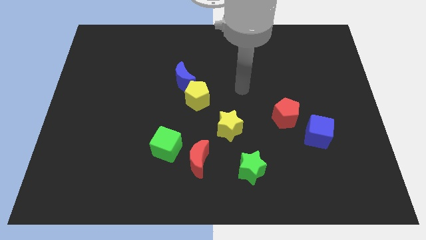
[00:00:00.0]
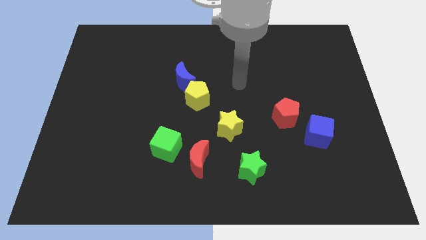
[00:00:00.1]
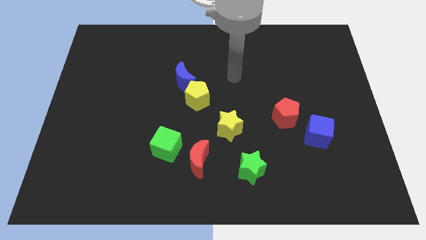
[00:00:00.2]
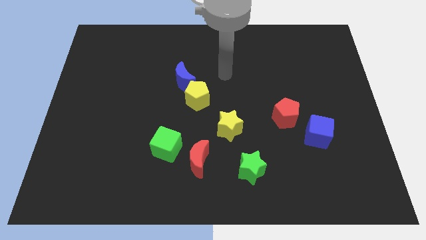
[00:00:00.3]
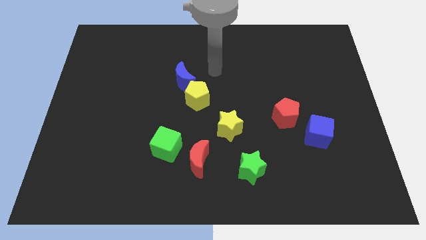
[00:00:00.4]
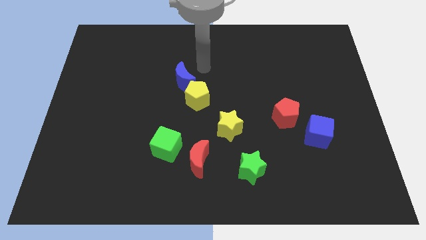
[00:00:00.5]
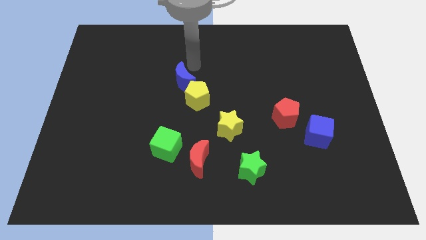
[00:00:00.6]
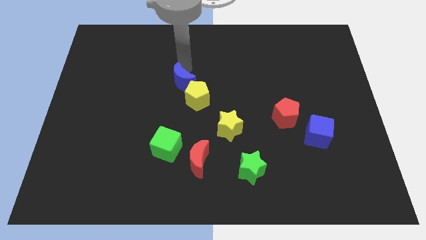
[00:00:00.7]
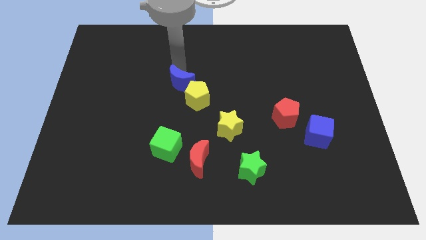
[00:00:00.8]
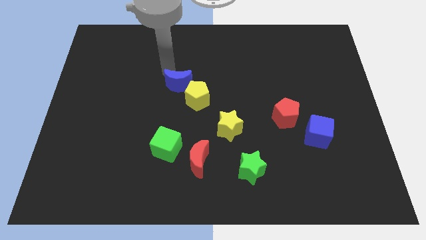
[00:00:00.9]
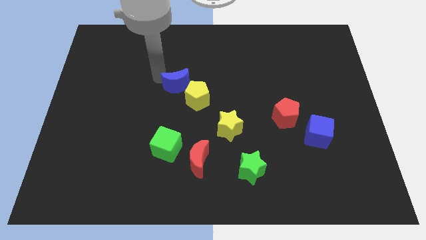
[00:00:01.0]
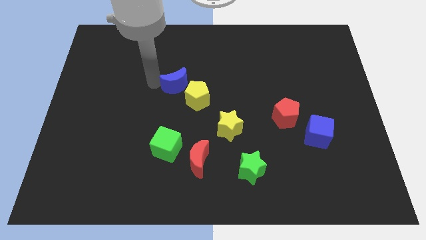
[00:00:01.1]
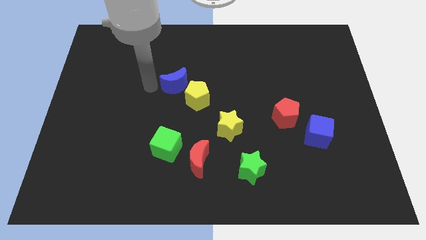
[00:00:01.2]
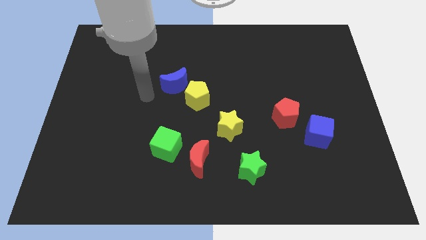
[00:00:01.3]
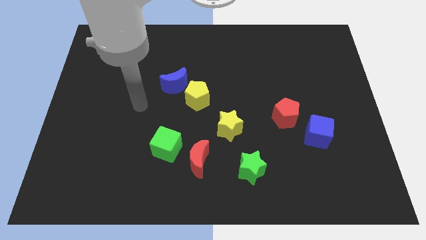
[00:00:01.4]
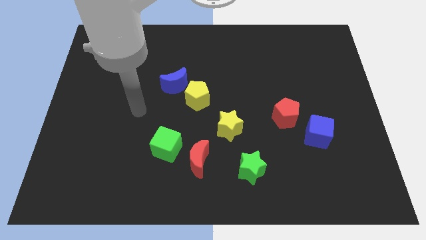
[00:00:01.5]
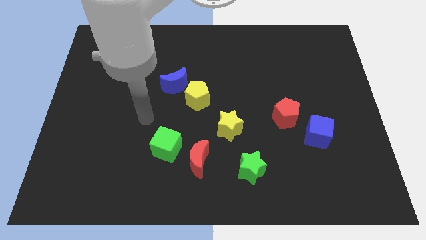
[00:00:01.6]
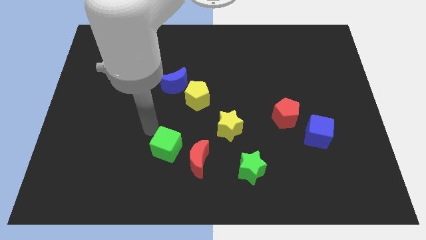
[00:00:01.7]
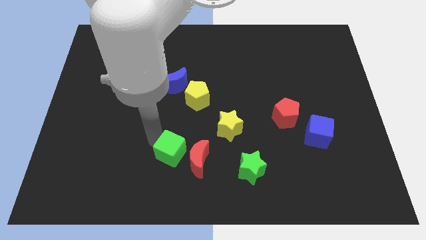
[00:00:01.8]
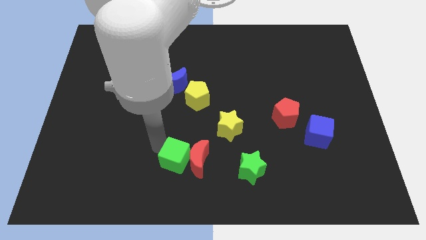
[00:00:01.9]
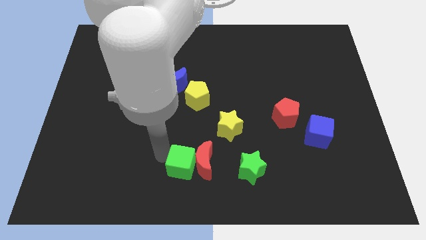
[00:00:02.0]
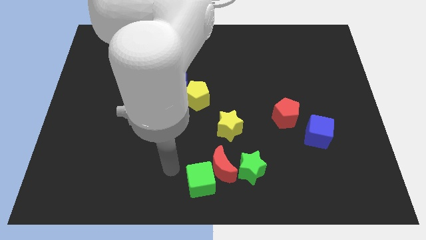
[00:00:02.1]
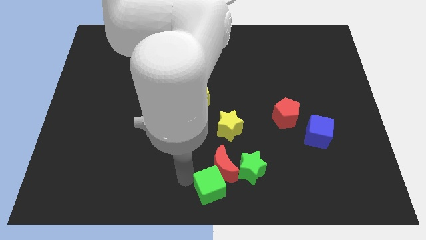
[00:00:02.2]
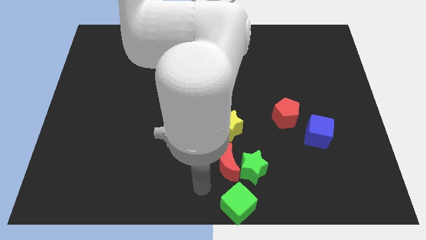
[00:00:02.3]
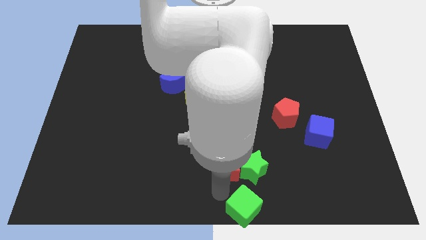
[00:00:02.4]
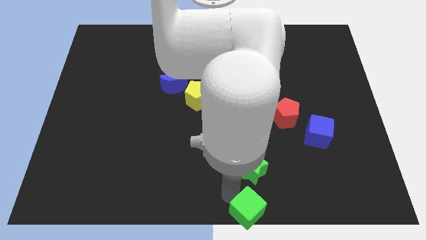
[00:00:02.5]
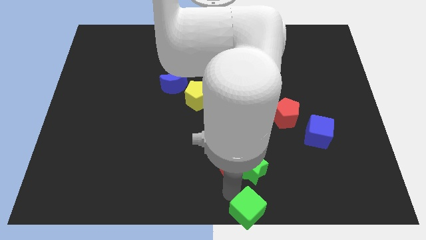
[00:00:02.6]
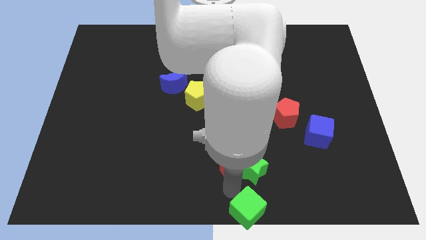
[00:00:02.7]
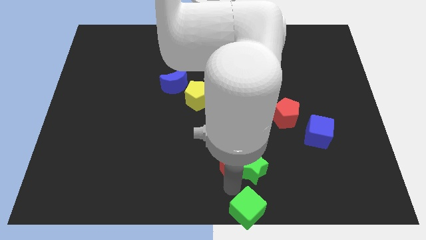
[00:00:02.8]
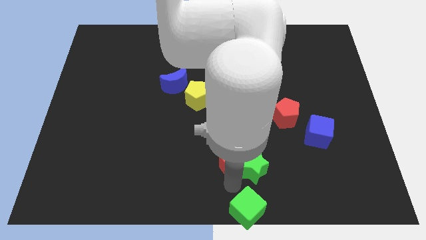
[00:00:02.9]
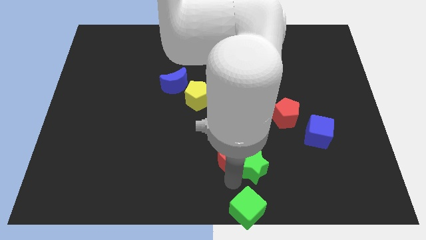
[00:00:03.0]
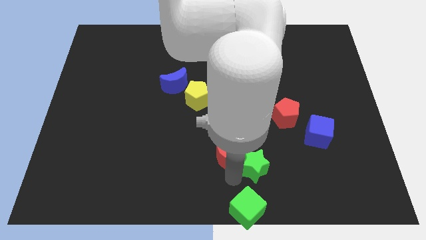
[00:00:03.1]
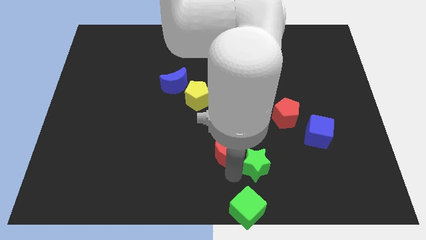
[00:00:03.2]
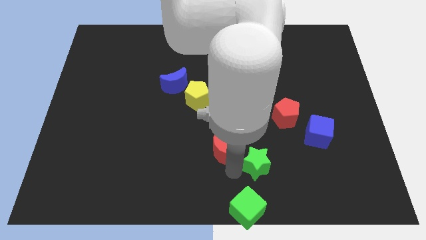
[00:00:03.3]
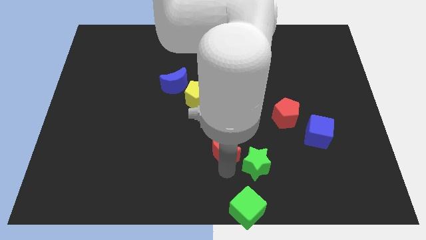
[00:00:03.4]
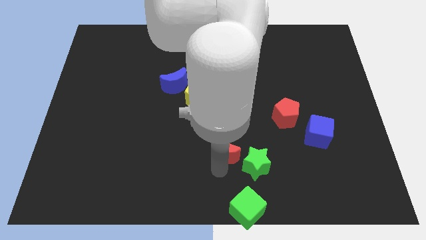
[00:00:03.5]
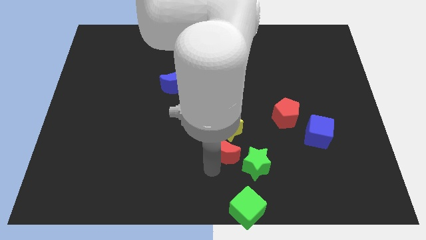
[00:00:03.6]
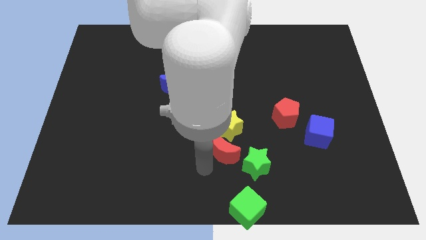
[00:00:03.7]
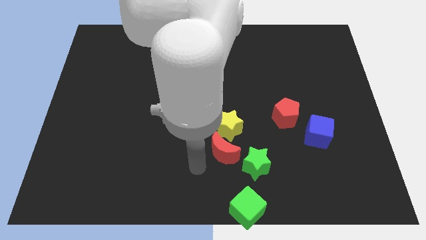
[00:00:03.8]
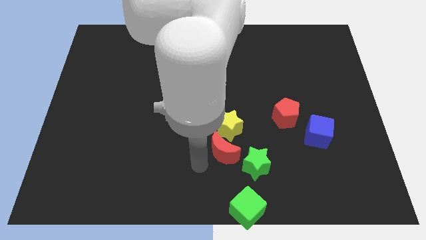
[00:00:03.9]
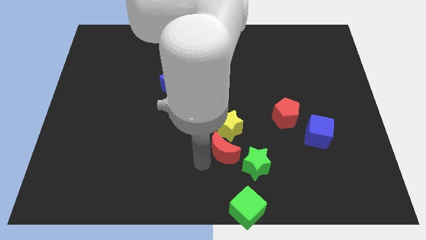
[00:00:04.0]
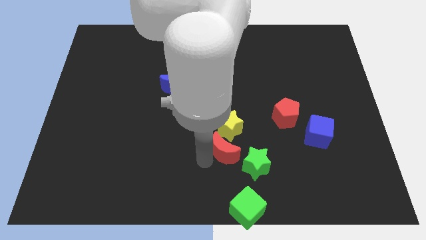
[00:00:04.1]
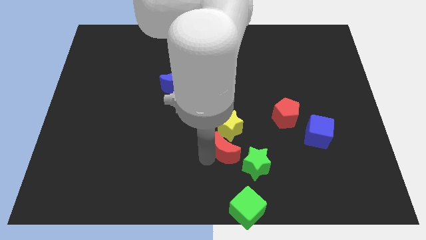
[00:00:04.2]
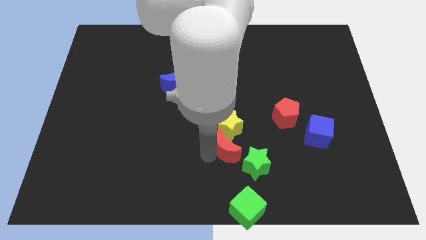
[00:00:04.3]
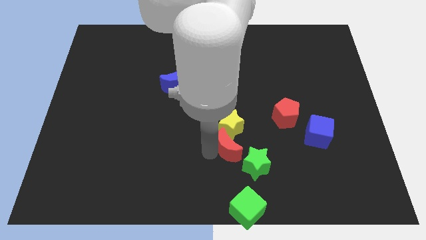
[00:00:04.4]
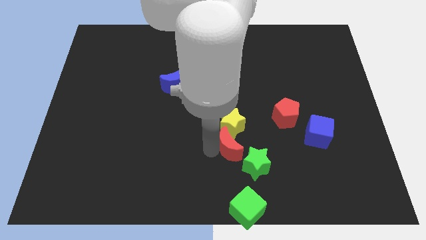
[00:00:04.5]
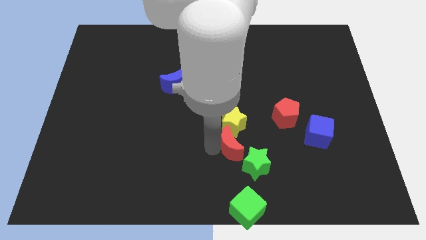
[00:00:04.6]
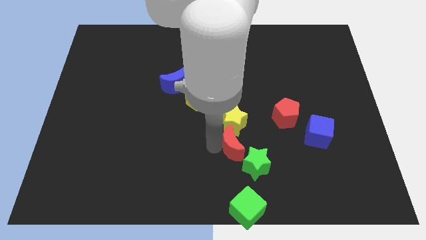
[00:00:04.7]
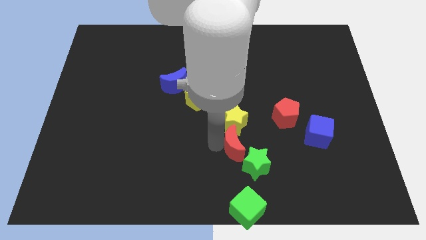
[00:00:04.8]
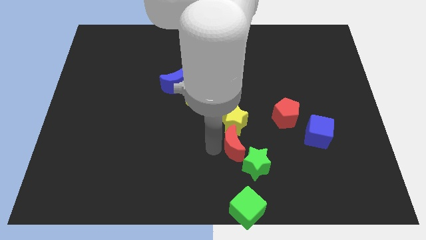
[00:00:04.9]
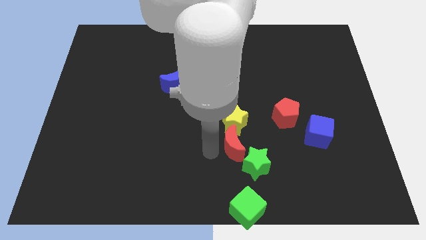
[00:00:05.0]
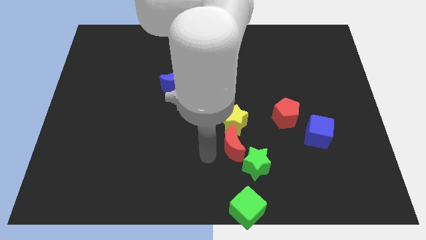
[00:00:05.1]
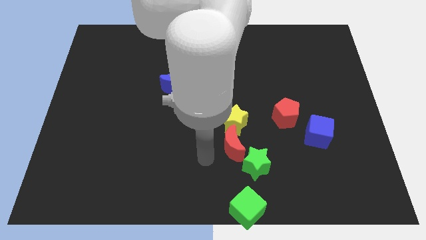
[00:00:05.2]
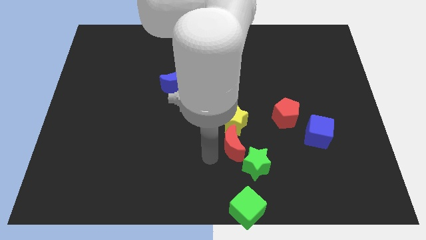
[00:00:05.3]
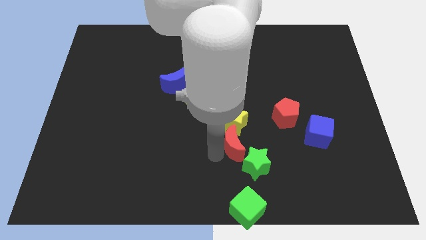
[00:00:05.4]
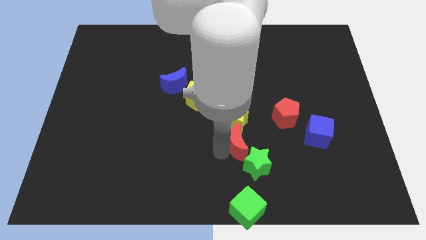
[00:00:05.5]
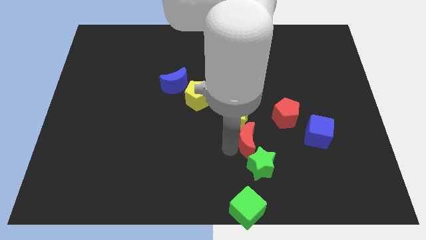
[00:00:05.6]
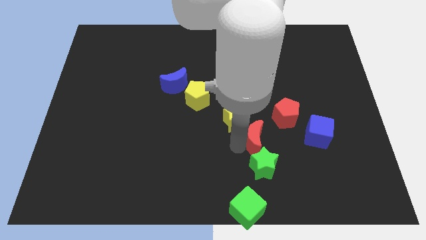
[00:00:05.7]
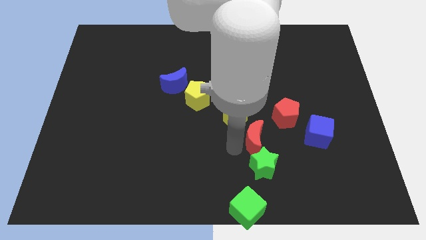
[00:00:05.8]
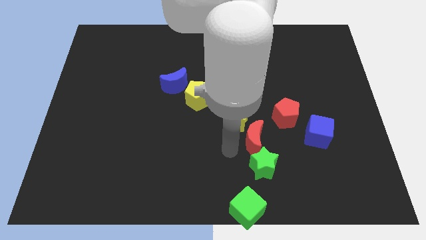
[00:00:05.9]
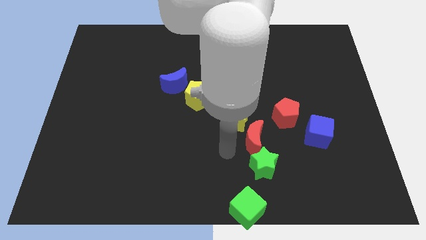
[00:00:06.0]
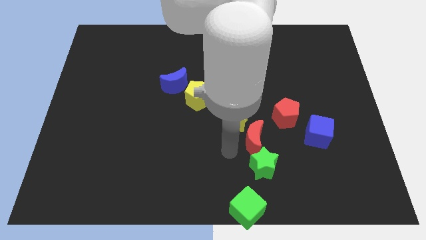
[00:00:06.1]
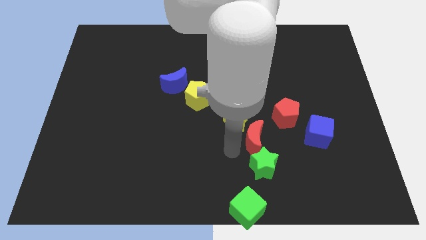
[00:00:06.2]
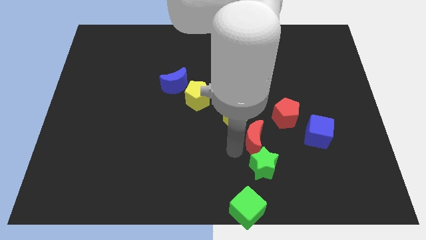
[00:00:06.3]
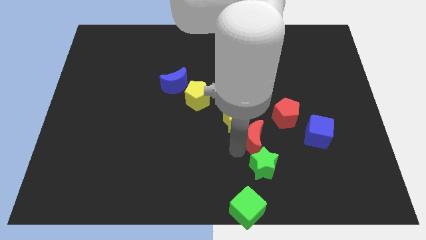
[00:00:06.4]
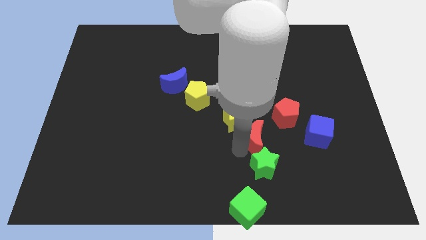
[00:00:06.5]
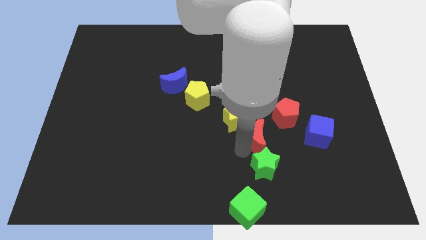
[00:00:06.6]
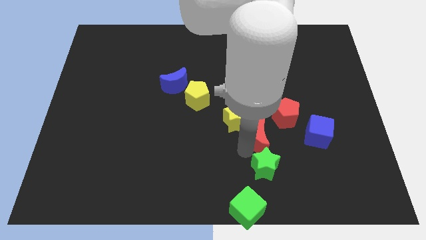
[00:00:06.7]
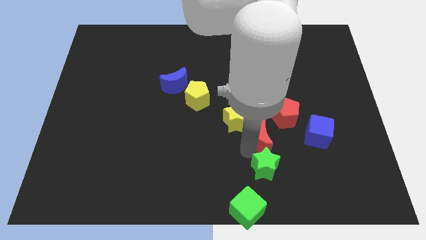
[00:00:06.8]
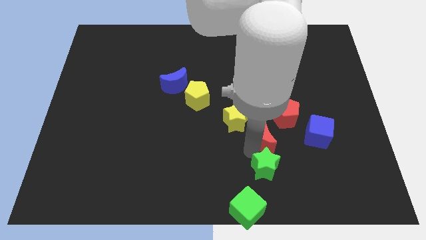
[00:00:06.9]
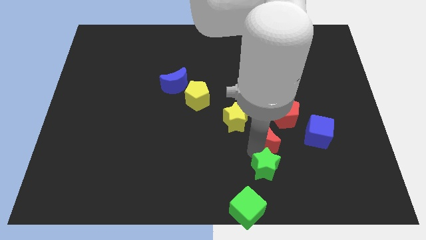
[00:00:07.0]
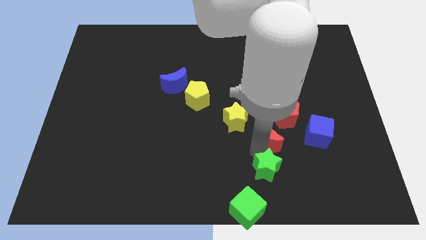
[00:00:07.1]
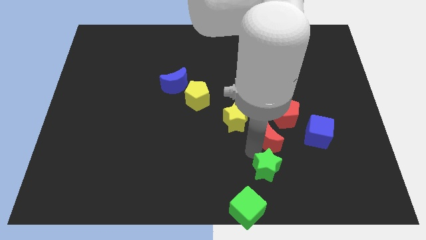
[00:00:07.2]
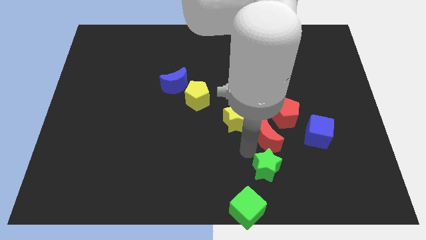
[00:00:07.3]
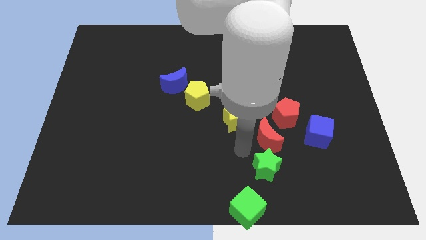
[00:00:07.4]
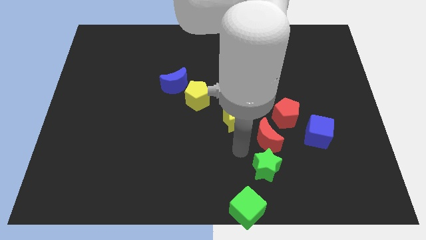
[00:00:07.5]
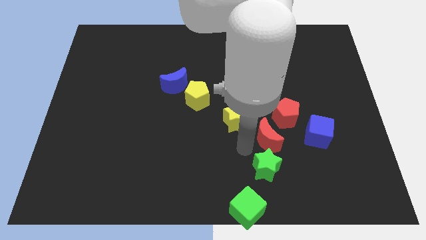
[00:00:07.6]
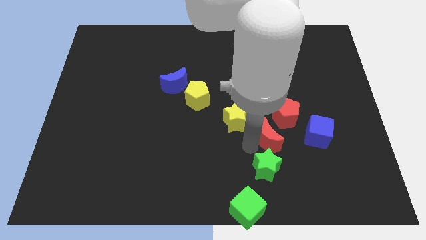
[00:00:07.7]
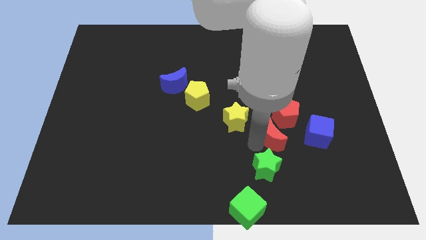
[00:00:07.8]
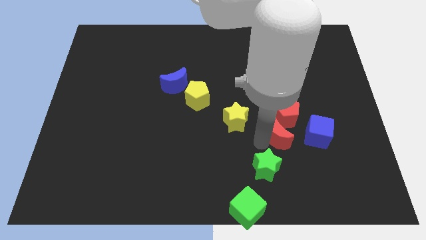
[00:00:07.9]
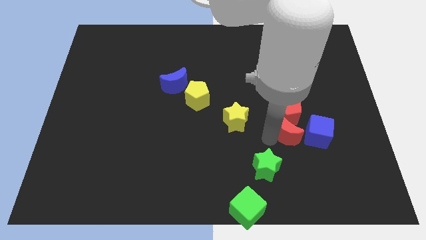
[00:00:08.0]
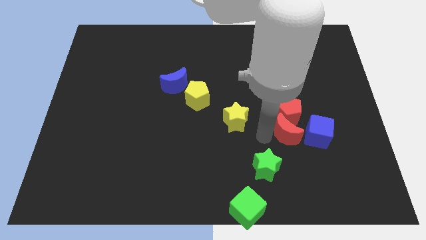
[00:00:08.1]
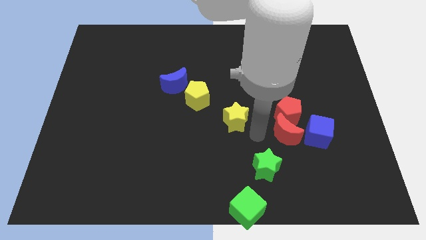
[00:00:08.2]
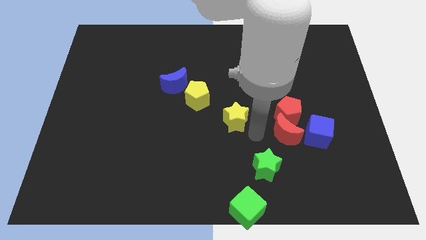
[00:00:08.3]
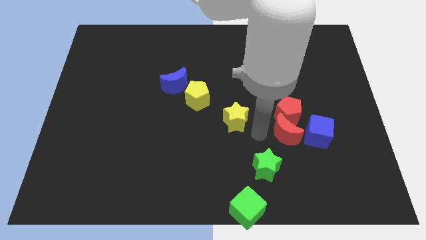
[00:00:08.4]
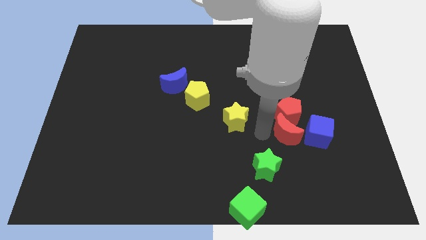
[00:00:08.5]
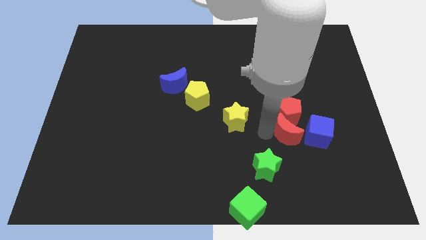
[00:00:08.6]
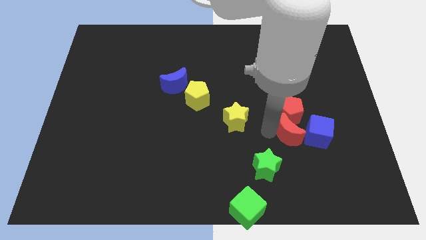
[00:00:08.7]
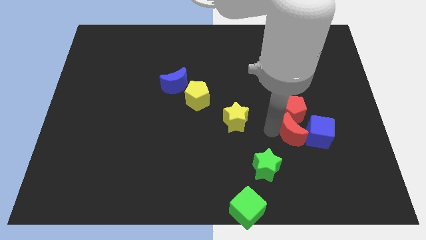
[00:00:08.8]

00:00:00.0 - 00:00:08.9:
move the red moon to the blue cube
